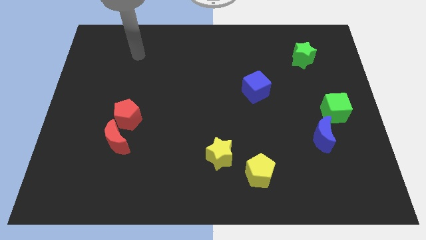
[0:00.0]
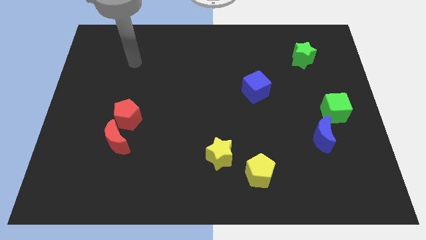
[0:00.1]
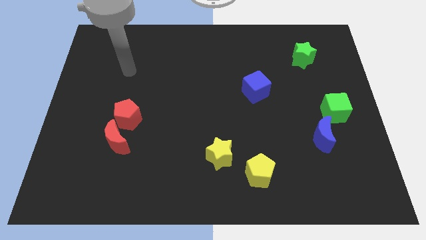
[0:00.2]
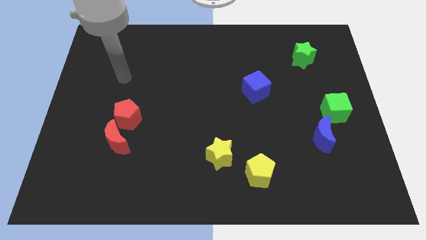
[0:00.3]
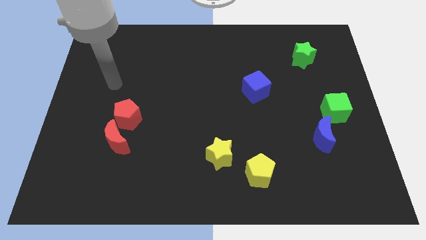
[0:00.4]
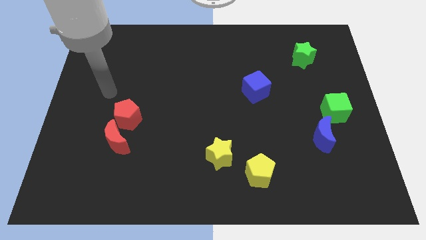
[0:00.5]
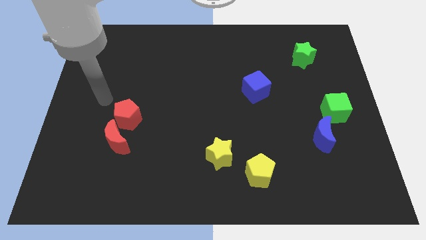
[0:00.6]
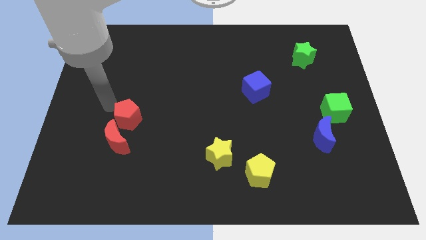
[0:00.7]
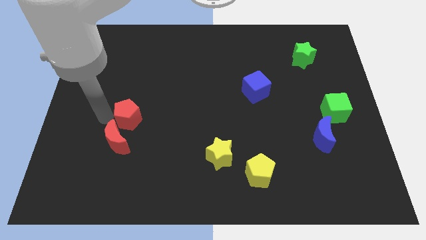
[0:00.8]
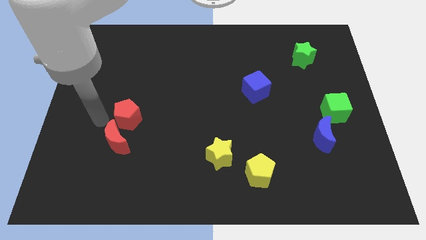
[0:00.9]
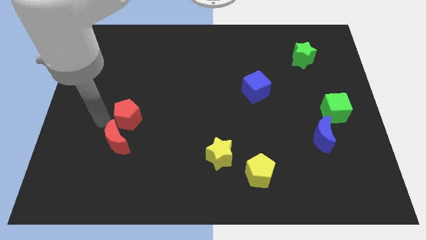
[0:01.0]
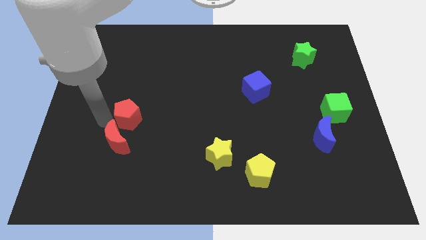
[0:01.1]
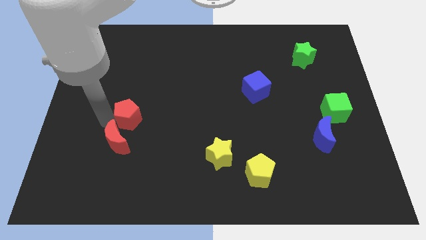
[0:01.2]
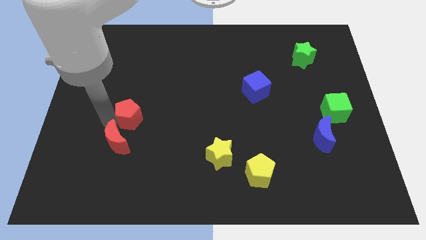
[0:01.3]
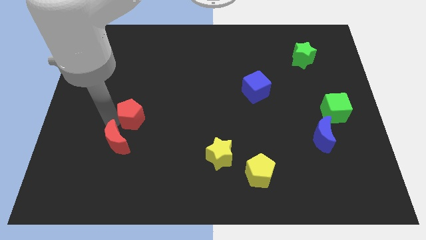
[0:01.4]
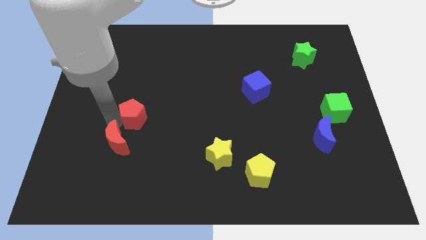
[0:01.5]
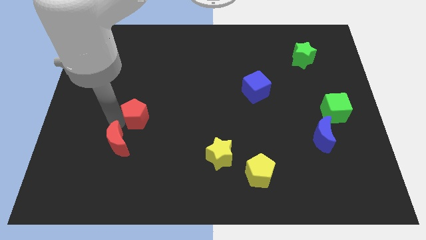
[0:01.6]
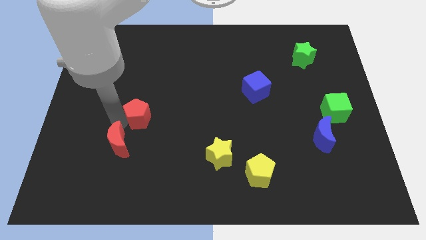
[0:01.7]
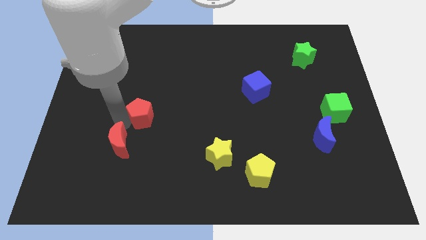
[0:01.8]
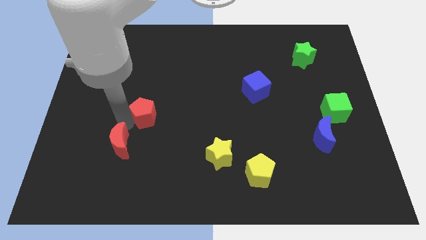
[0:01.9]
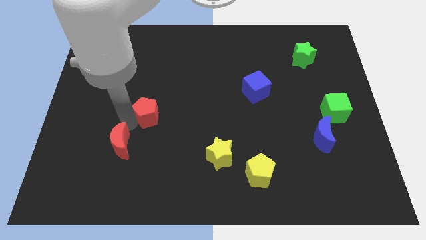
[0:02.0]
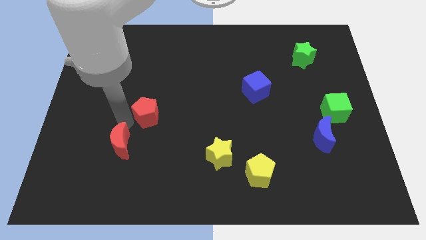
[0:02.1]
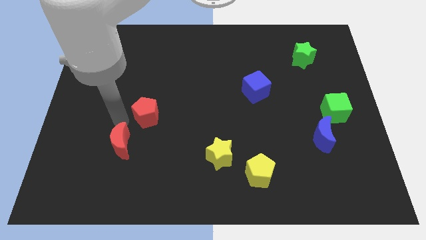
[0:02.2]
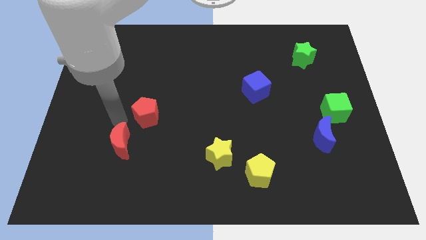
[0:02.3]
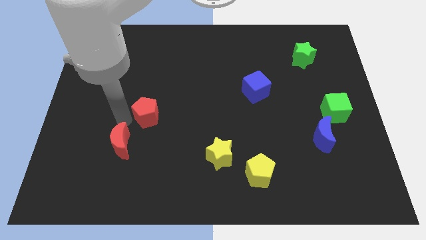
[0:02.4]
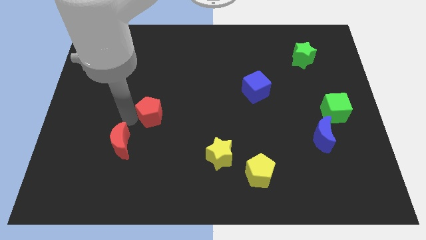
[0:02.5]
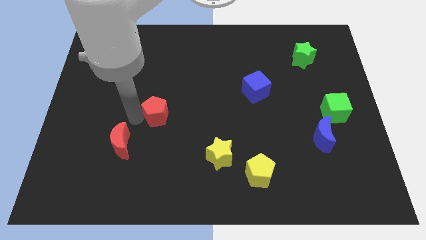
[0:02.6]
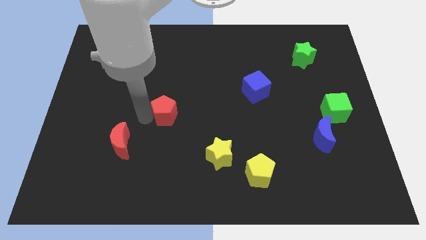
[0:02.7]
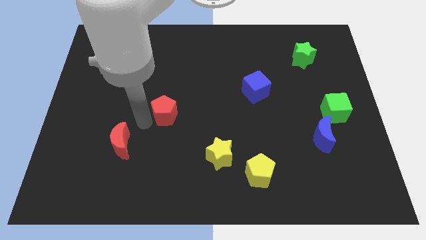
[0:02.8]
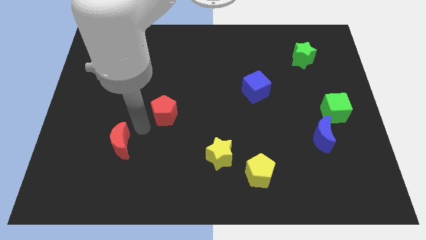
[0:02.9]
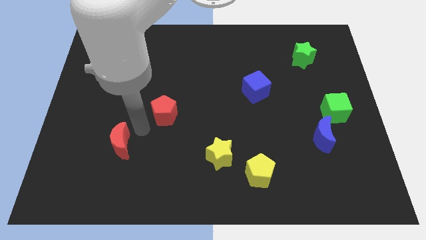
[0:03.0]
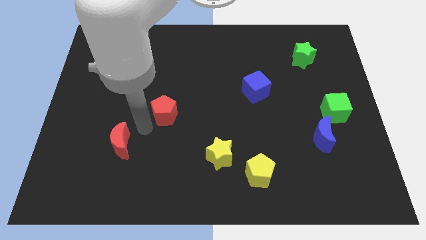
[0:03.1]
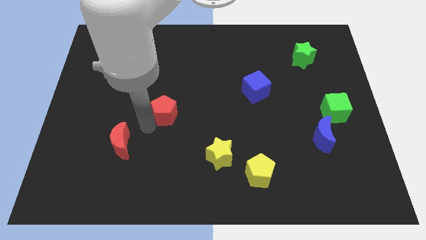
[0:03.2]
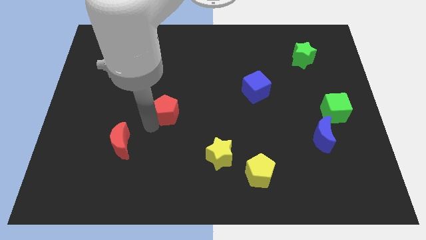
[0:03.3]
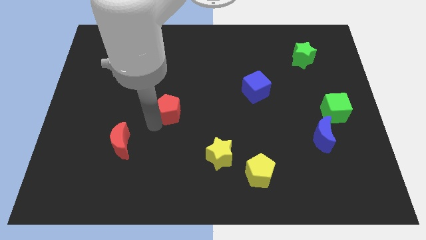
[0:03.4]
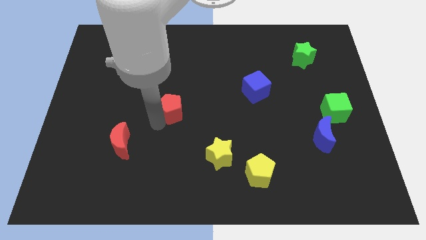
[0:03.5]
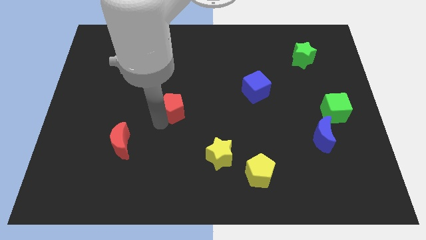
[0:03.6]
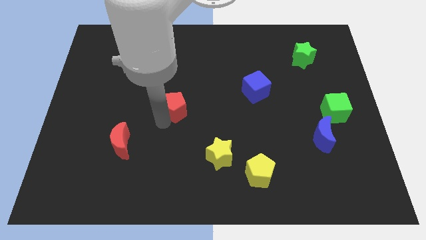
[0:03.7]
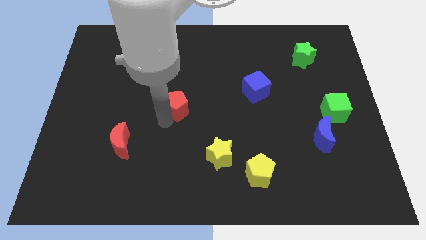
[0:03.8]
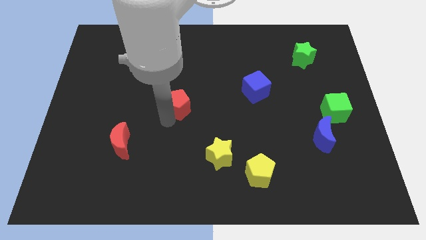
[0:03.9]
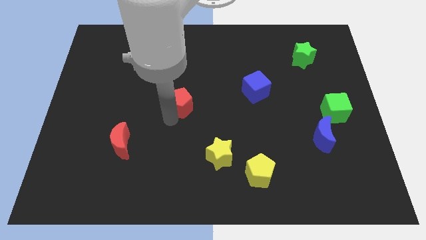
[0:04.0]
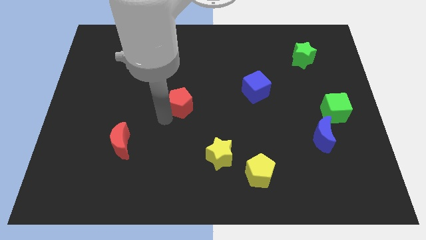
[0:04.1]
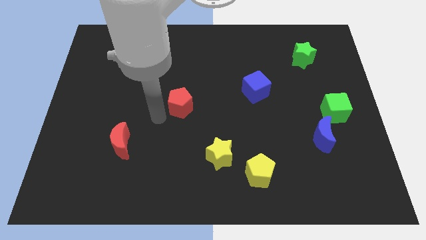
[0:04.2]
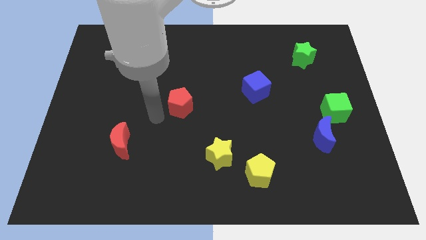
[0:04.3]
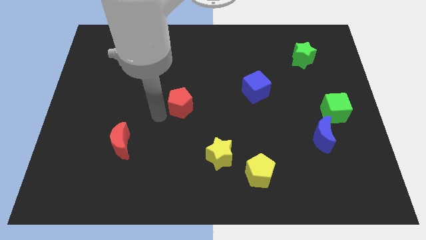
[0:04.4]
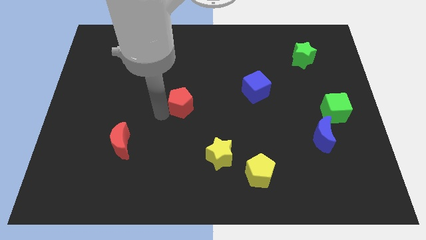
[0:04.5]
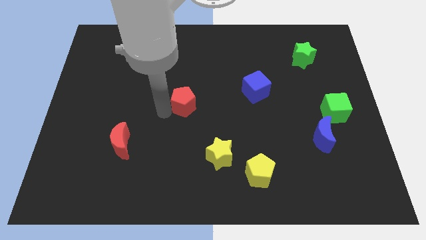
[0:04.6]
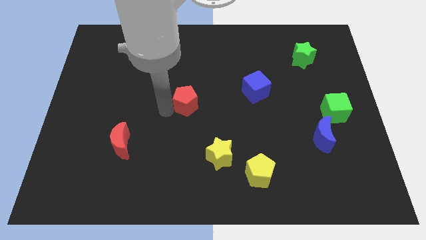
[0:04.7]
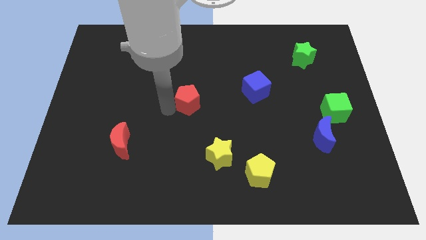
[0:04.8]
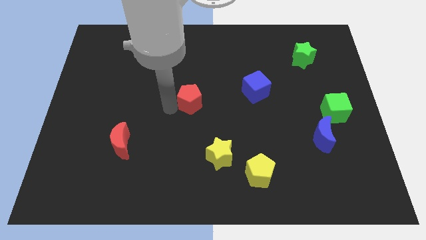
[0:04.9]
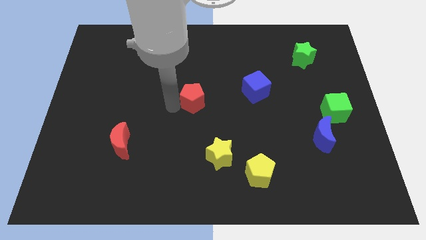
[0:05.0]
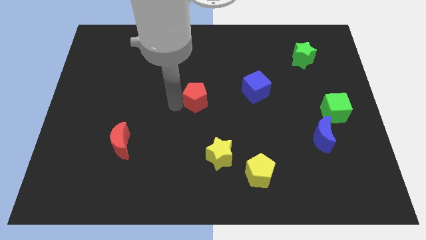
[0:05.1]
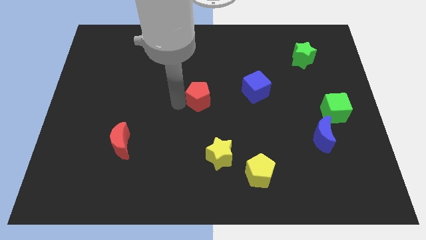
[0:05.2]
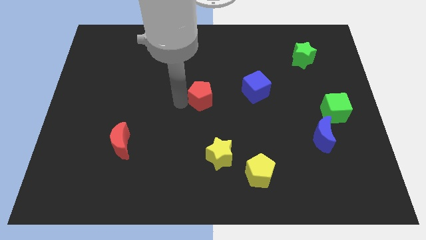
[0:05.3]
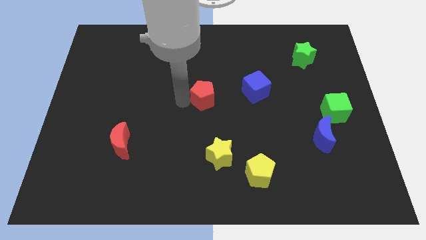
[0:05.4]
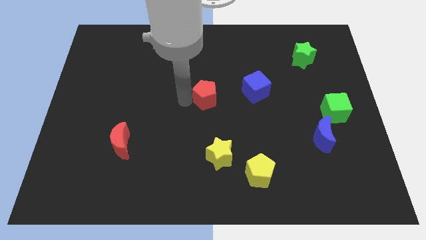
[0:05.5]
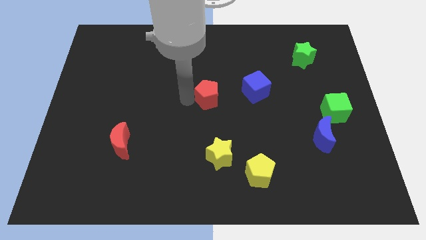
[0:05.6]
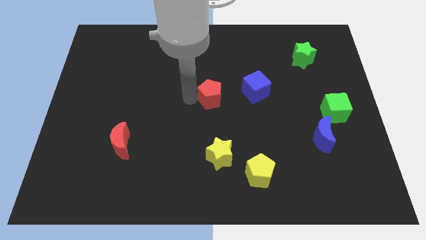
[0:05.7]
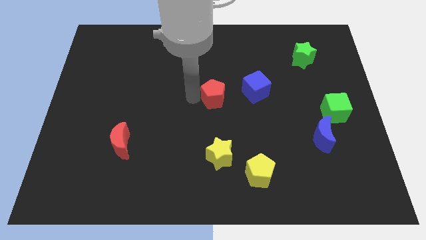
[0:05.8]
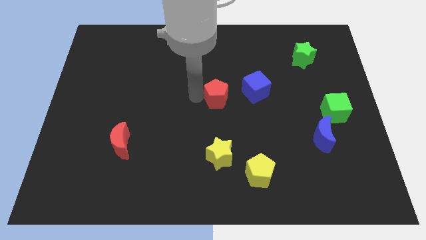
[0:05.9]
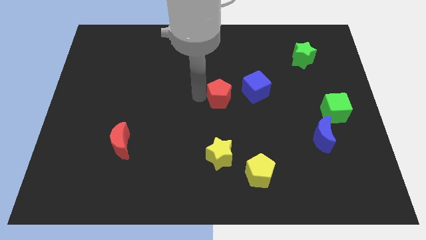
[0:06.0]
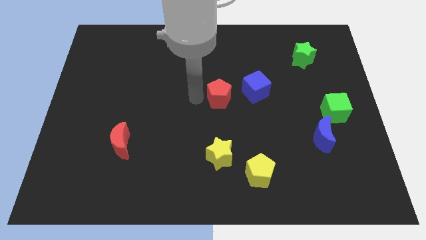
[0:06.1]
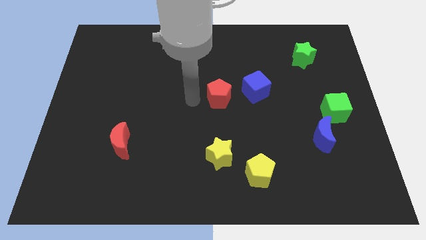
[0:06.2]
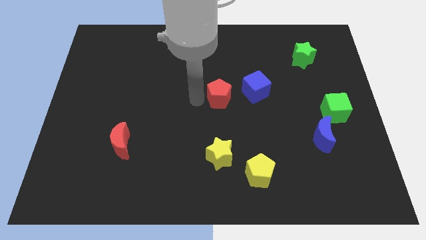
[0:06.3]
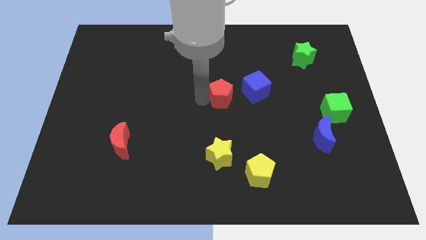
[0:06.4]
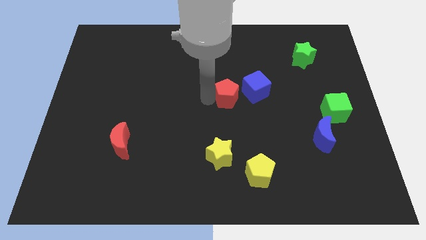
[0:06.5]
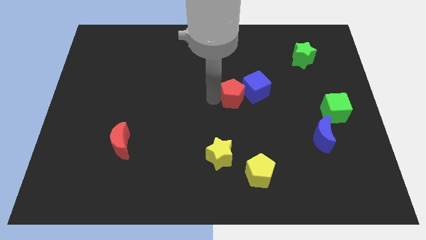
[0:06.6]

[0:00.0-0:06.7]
slide the red pentagon to the blue cube

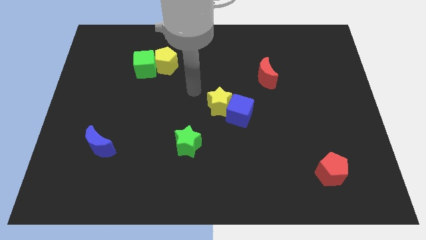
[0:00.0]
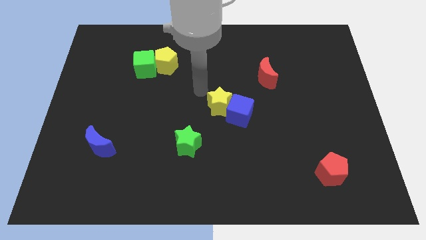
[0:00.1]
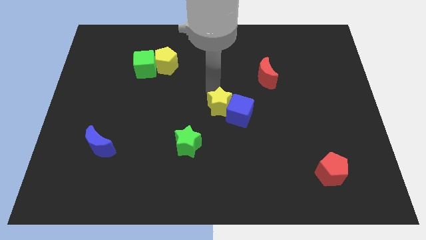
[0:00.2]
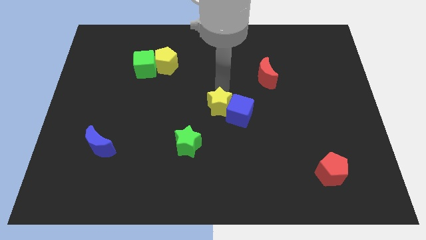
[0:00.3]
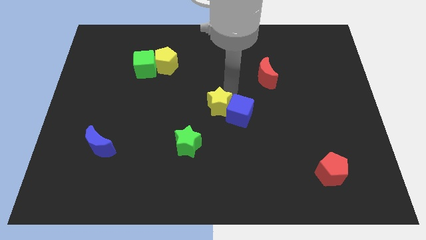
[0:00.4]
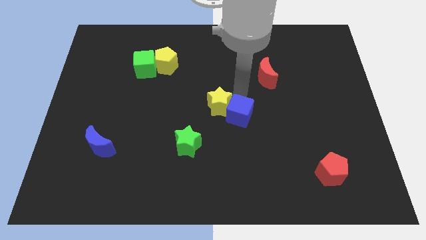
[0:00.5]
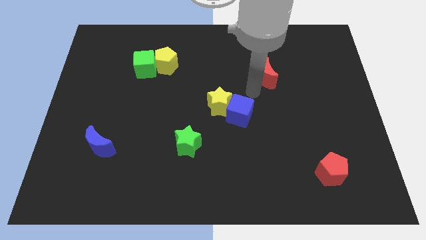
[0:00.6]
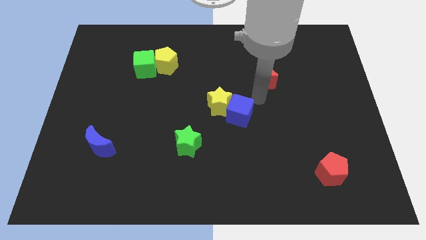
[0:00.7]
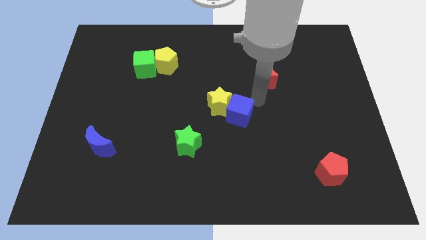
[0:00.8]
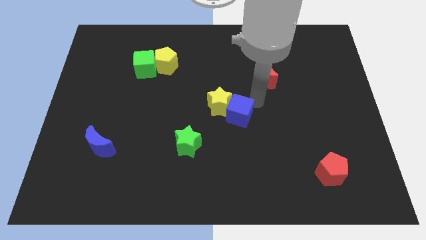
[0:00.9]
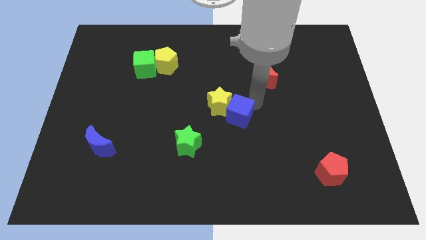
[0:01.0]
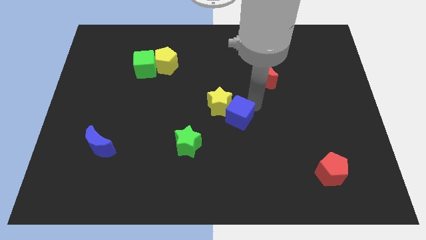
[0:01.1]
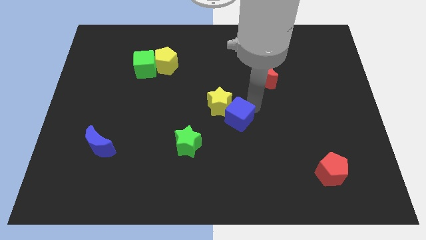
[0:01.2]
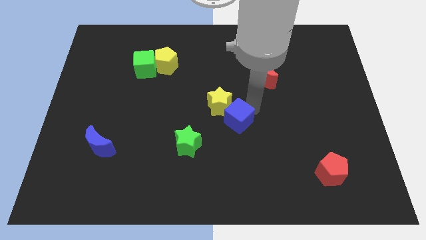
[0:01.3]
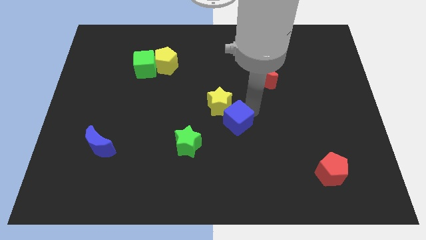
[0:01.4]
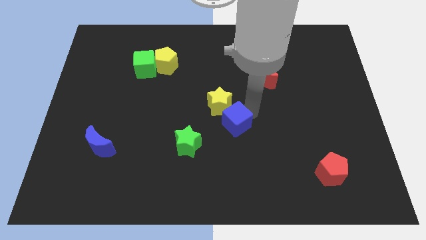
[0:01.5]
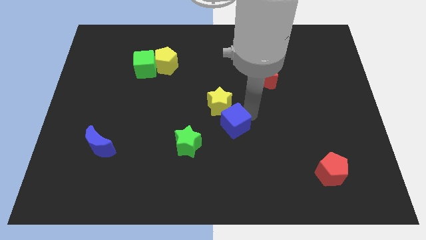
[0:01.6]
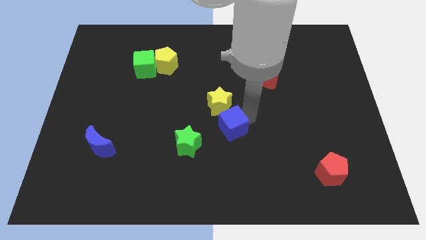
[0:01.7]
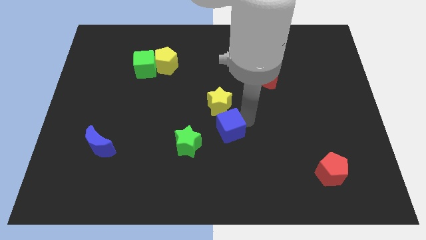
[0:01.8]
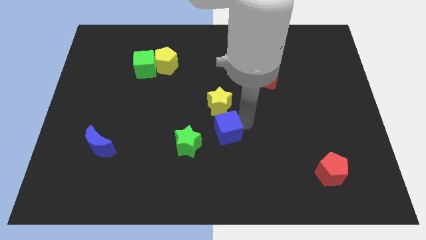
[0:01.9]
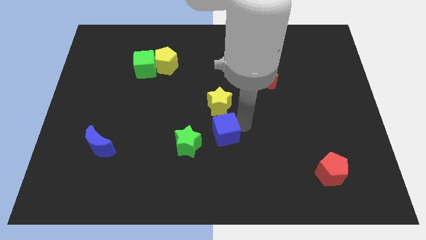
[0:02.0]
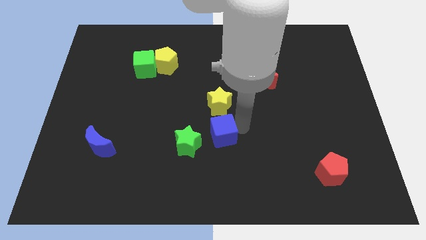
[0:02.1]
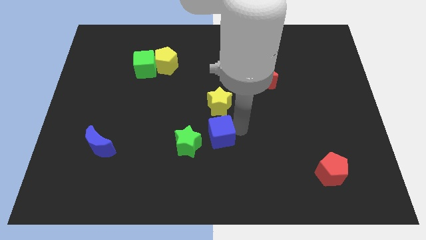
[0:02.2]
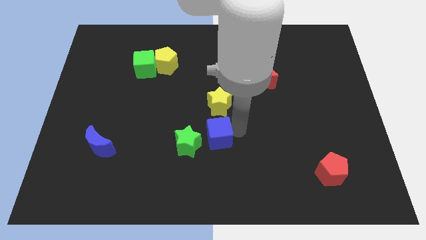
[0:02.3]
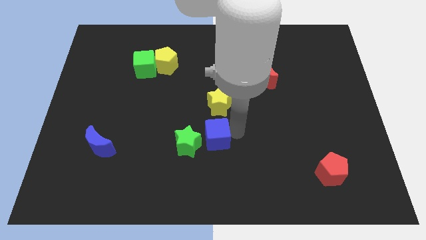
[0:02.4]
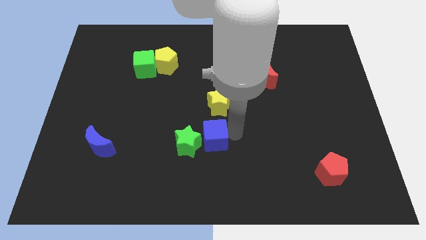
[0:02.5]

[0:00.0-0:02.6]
put the blue cube to the green star
